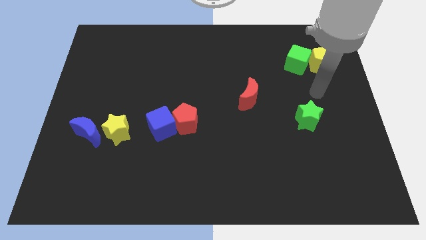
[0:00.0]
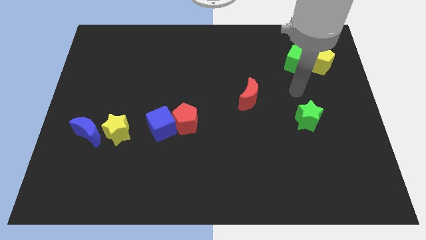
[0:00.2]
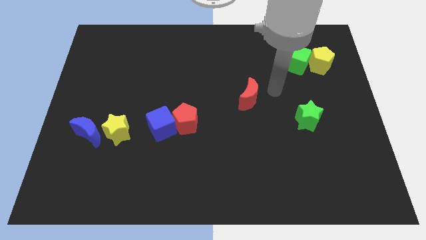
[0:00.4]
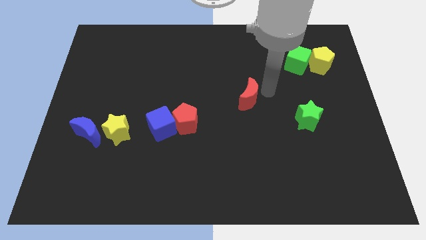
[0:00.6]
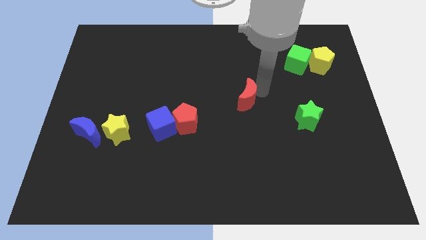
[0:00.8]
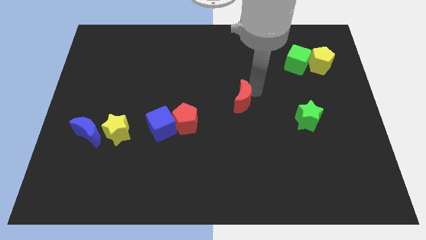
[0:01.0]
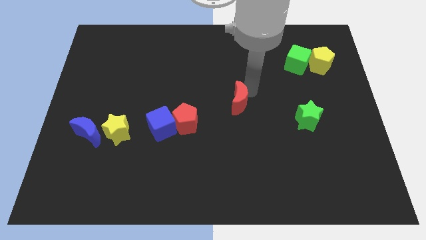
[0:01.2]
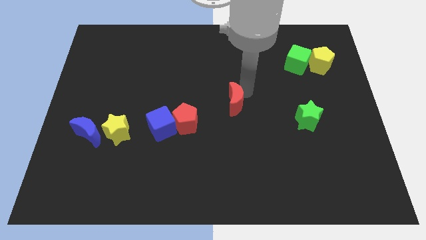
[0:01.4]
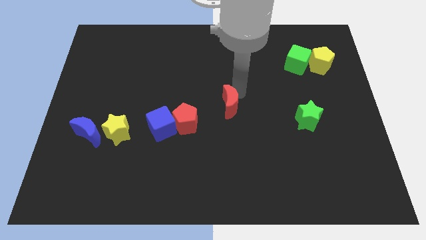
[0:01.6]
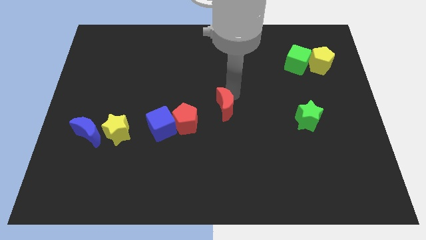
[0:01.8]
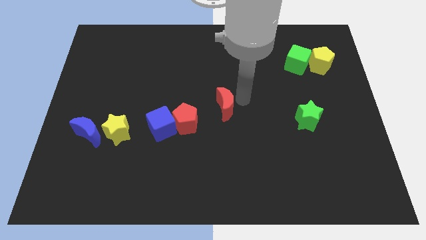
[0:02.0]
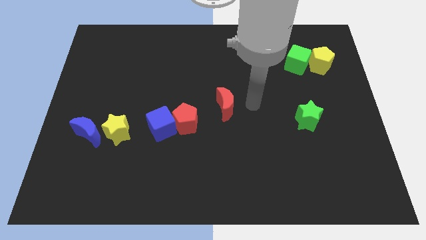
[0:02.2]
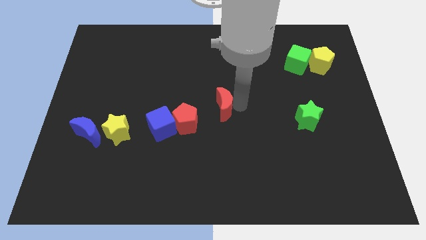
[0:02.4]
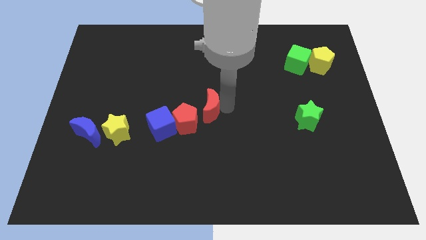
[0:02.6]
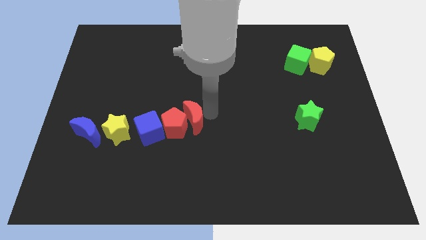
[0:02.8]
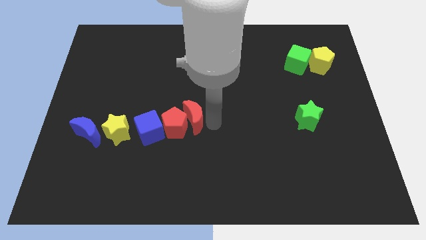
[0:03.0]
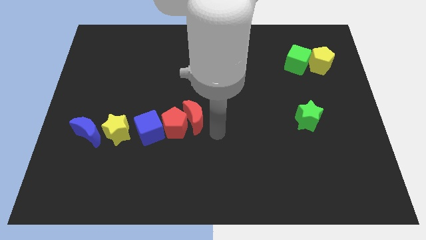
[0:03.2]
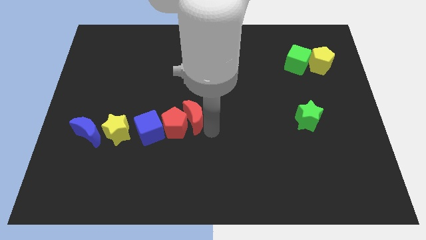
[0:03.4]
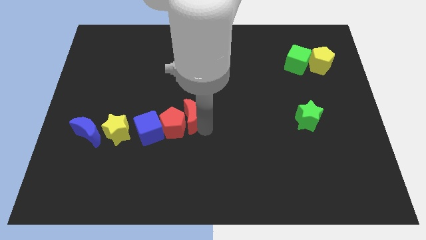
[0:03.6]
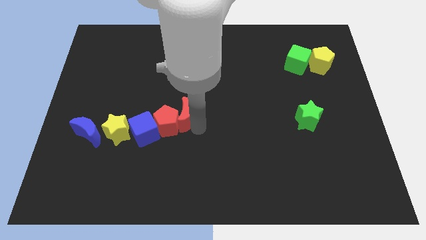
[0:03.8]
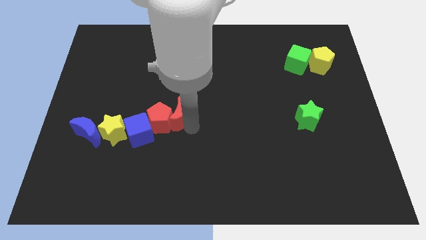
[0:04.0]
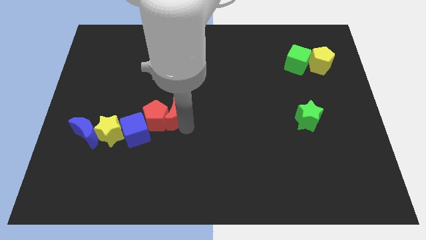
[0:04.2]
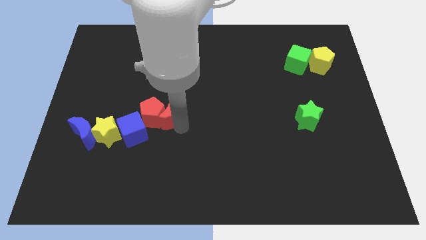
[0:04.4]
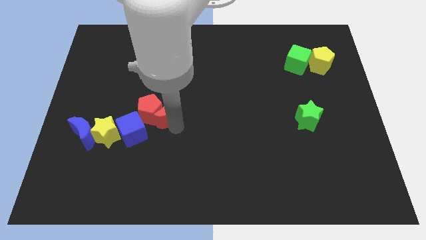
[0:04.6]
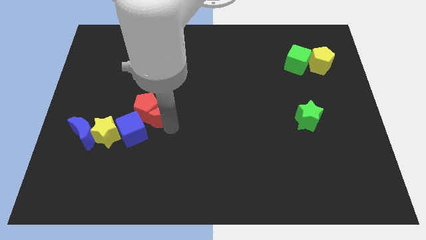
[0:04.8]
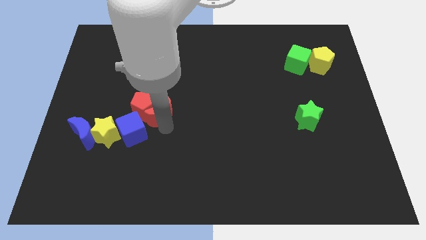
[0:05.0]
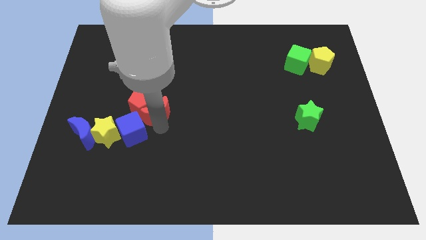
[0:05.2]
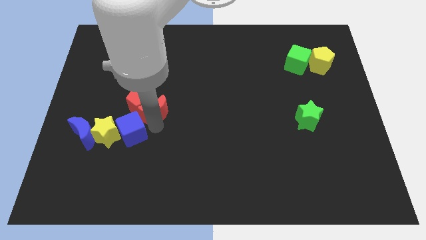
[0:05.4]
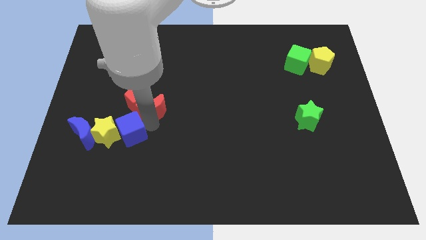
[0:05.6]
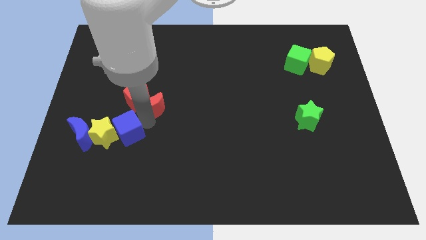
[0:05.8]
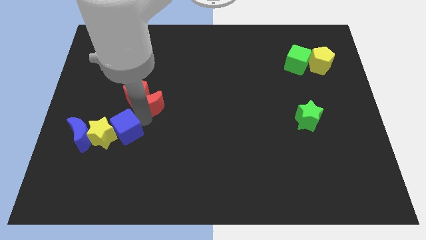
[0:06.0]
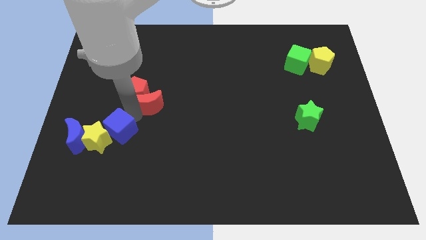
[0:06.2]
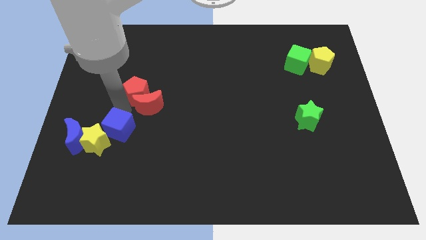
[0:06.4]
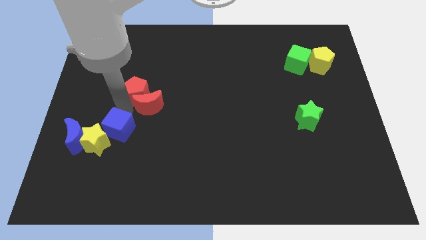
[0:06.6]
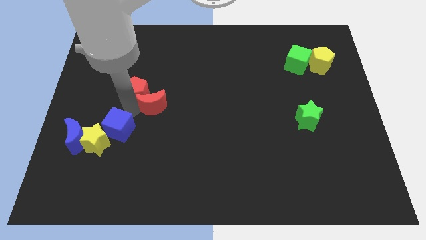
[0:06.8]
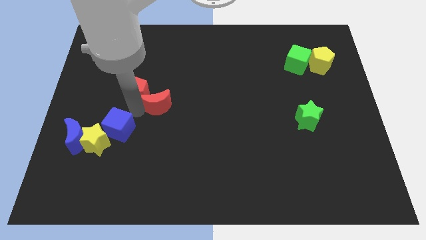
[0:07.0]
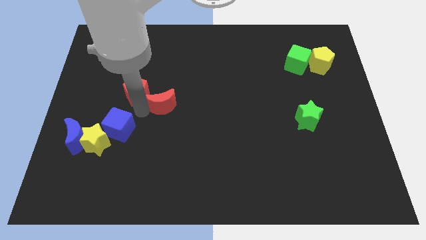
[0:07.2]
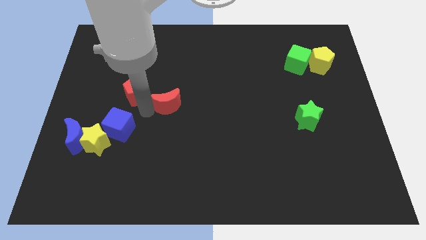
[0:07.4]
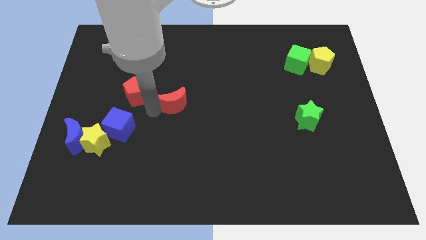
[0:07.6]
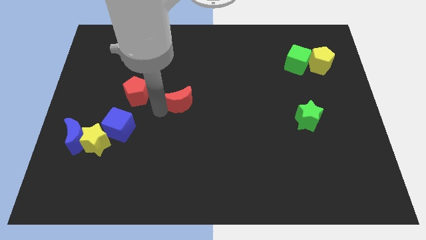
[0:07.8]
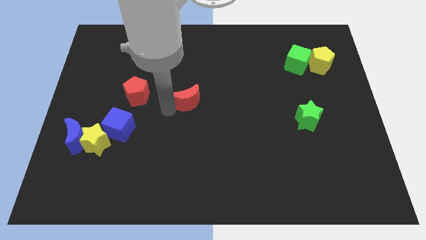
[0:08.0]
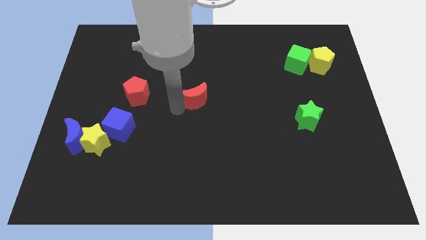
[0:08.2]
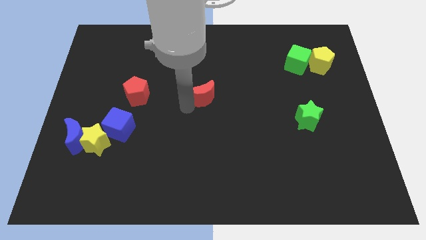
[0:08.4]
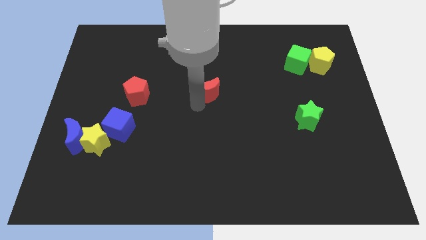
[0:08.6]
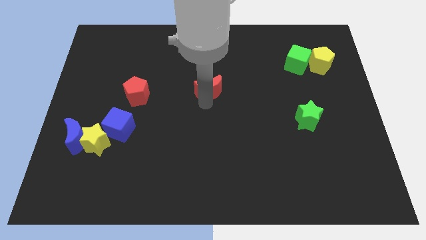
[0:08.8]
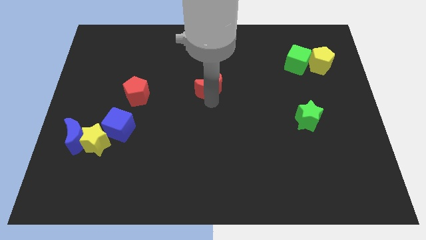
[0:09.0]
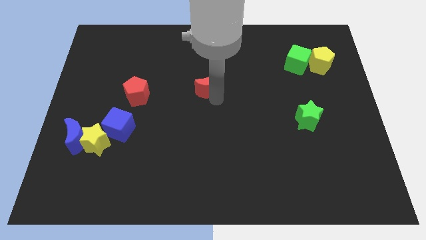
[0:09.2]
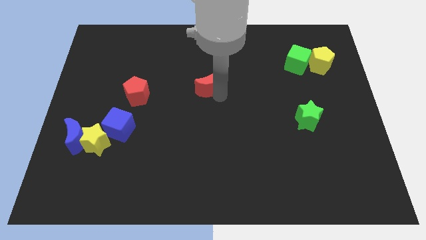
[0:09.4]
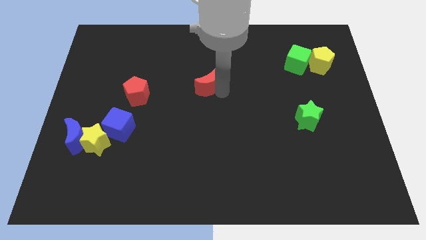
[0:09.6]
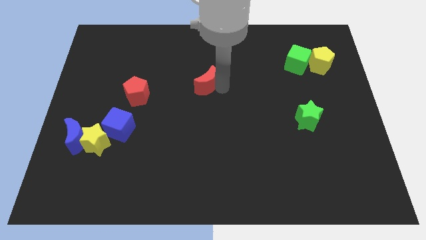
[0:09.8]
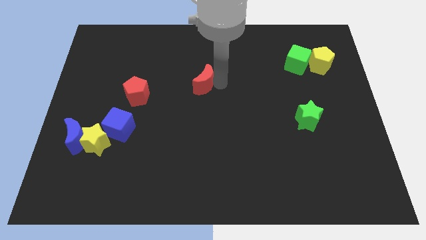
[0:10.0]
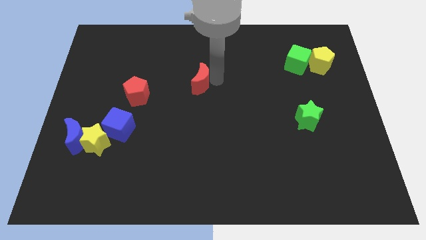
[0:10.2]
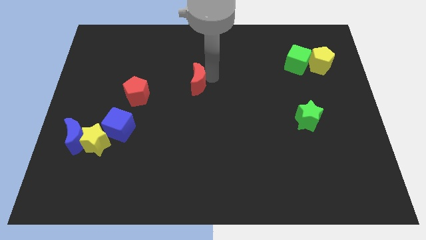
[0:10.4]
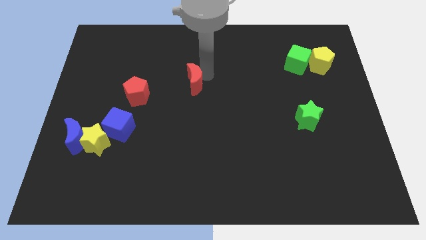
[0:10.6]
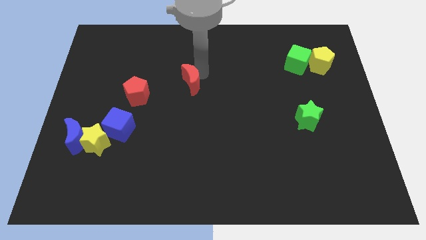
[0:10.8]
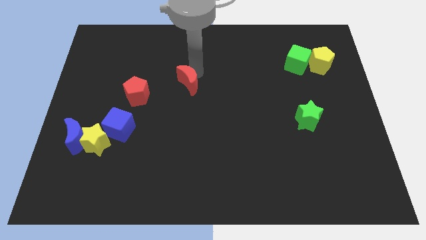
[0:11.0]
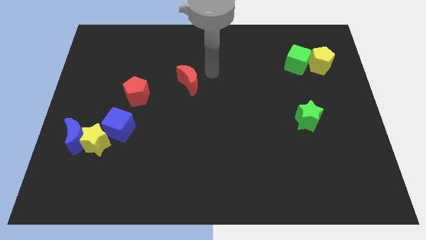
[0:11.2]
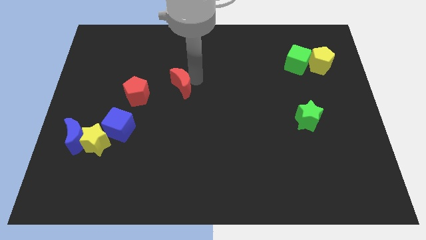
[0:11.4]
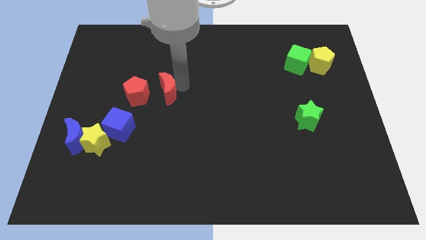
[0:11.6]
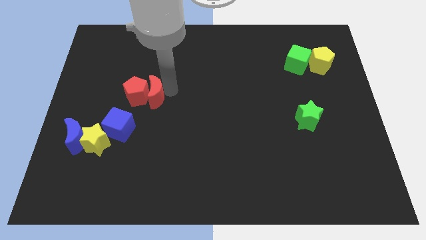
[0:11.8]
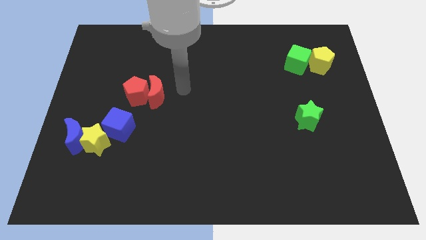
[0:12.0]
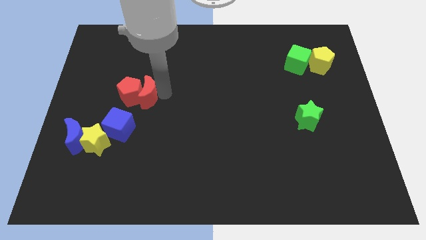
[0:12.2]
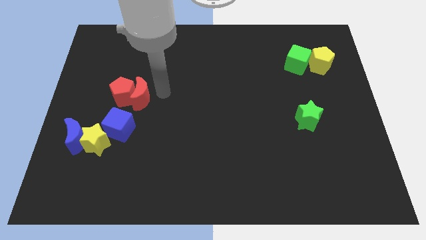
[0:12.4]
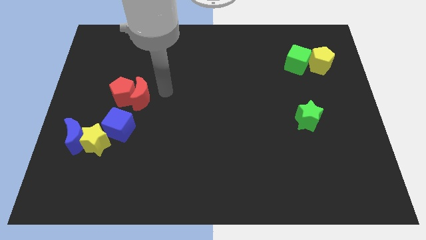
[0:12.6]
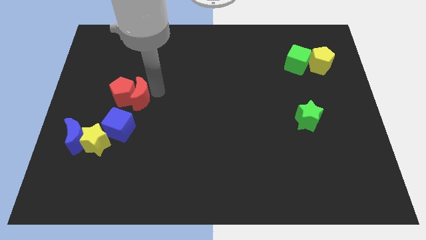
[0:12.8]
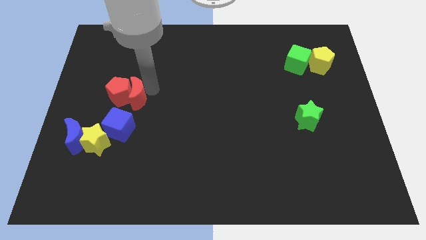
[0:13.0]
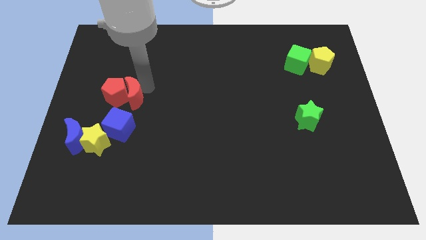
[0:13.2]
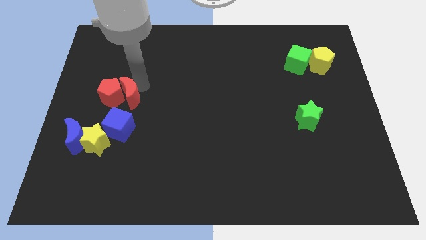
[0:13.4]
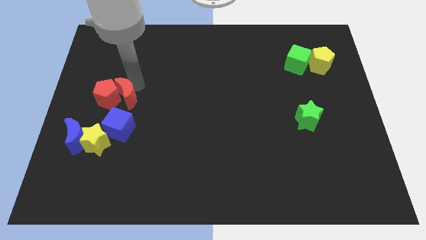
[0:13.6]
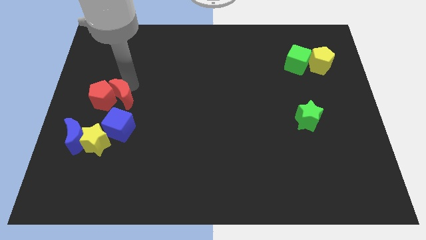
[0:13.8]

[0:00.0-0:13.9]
push the red moon to the top side of the yellow star

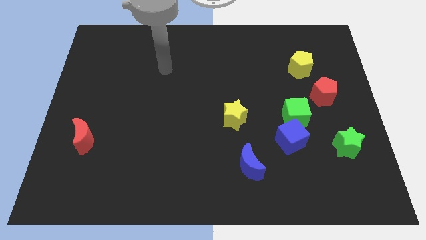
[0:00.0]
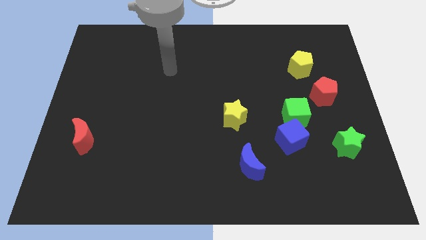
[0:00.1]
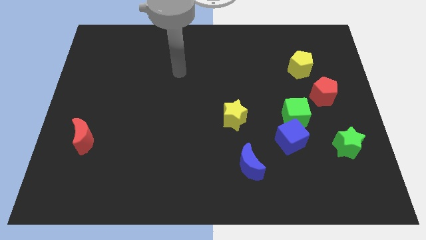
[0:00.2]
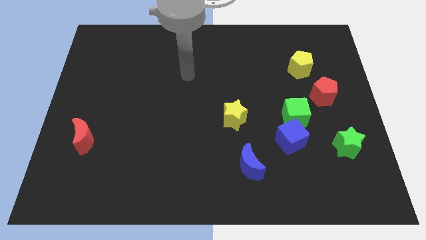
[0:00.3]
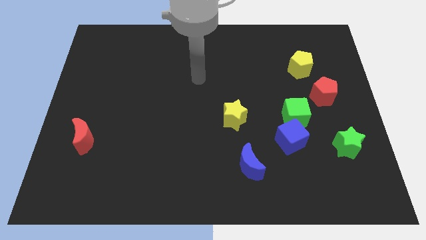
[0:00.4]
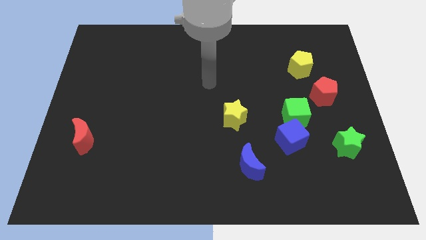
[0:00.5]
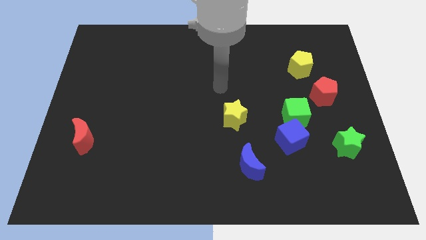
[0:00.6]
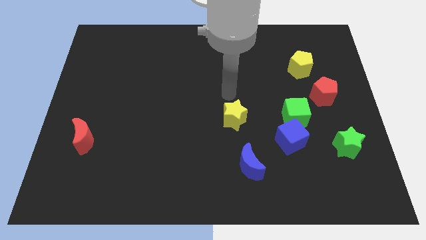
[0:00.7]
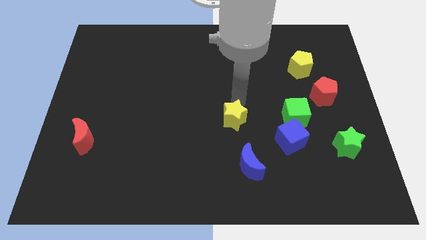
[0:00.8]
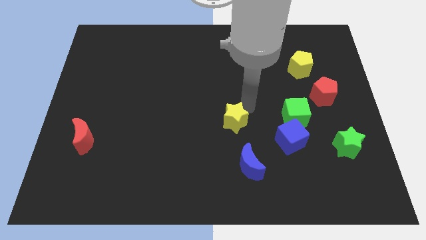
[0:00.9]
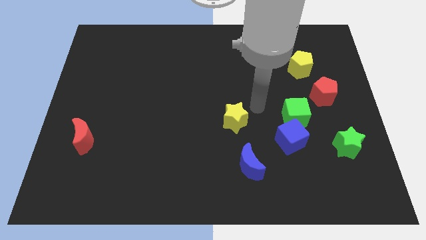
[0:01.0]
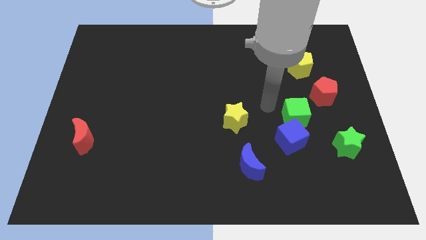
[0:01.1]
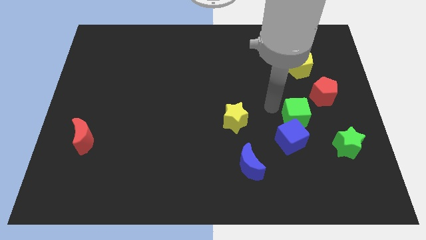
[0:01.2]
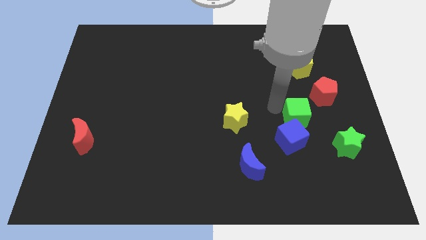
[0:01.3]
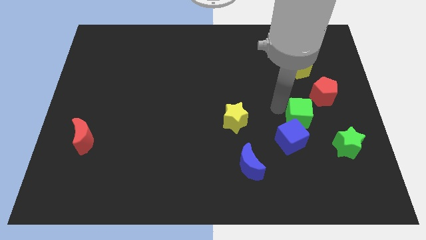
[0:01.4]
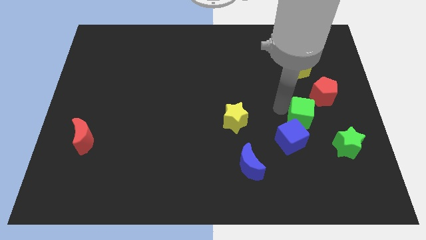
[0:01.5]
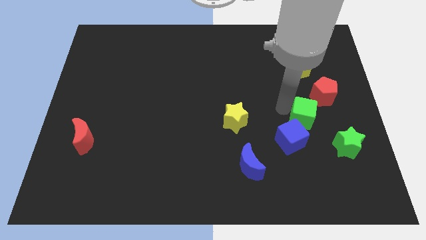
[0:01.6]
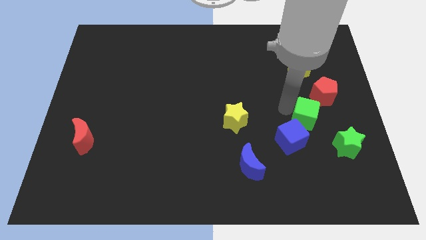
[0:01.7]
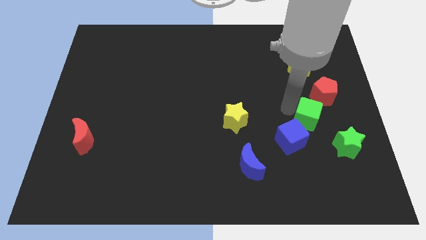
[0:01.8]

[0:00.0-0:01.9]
move the green cube to the bottom side of the red pentagon
